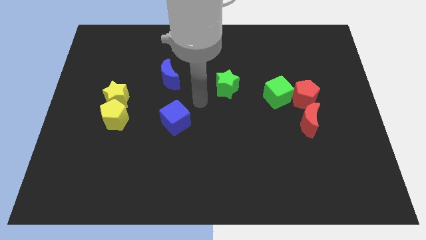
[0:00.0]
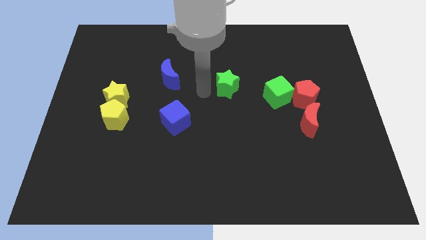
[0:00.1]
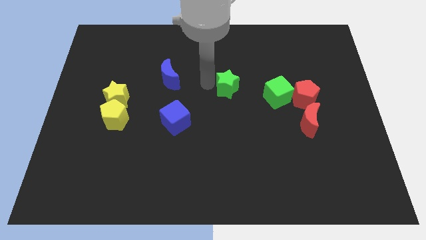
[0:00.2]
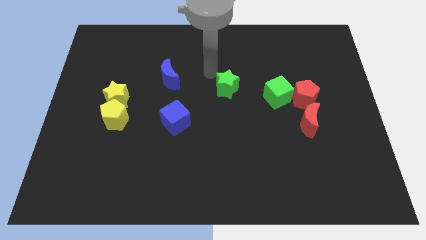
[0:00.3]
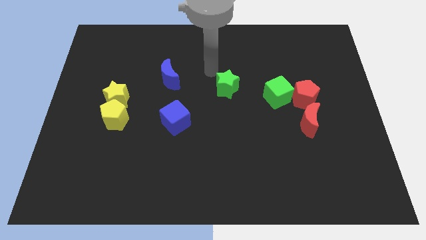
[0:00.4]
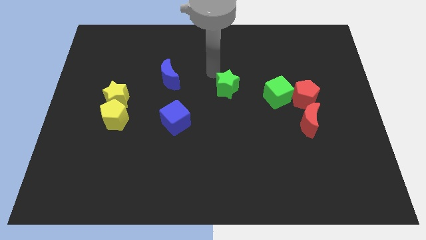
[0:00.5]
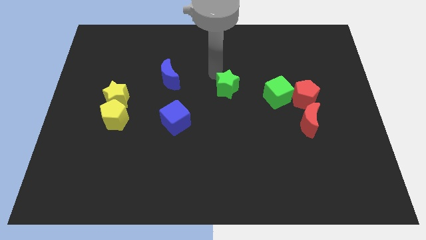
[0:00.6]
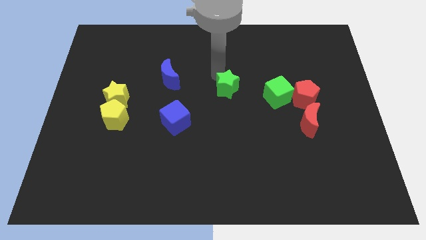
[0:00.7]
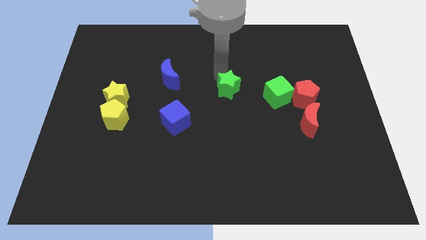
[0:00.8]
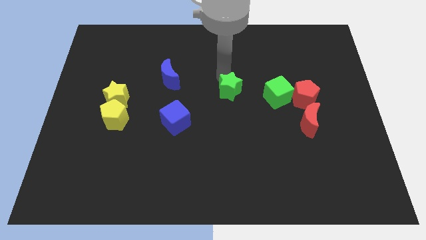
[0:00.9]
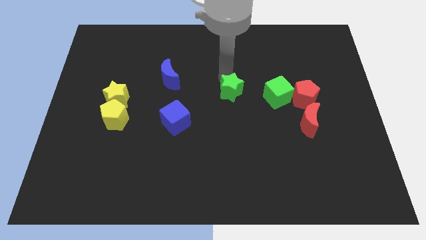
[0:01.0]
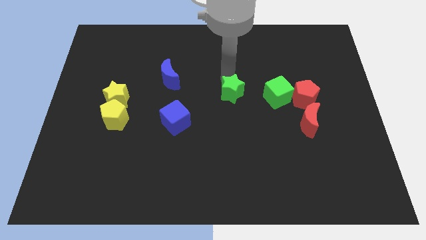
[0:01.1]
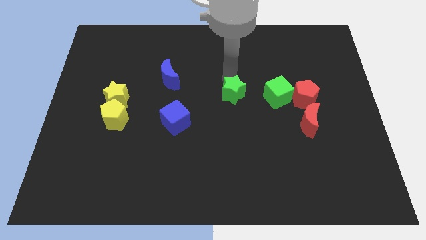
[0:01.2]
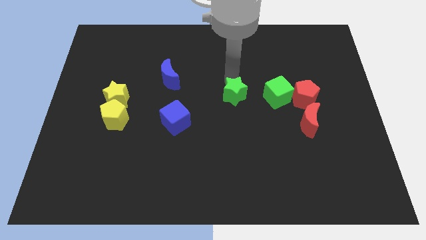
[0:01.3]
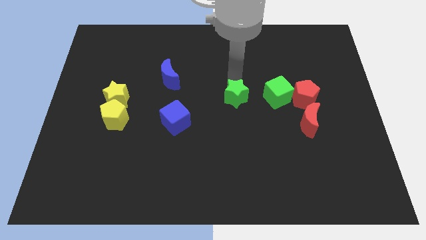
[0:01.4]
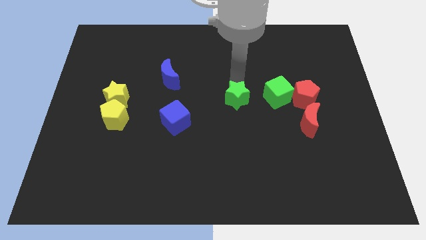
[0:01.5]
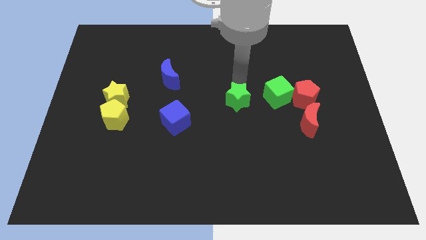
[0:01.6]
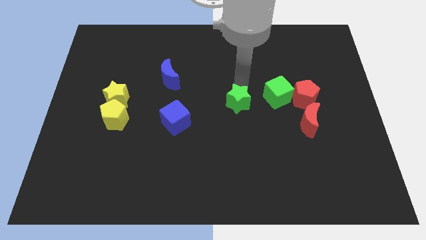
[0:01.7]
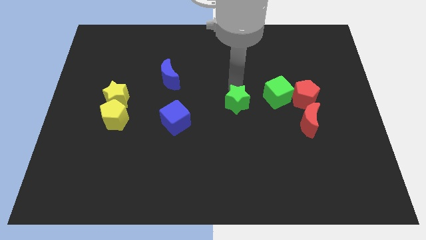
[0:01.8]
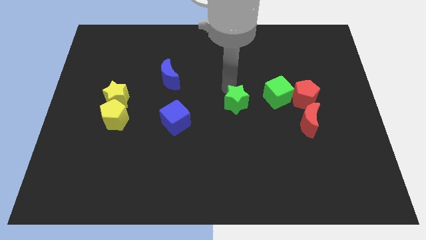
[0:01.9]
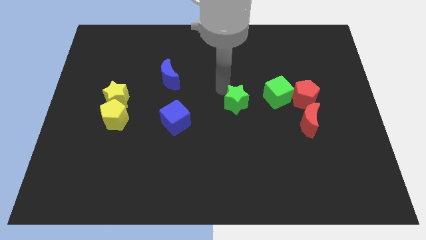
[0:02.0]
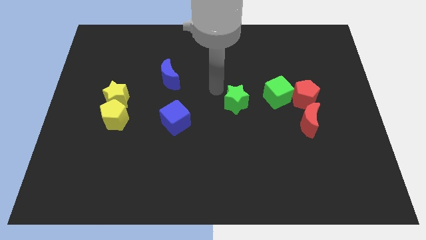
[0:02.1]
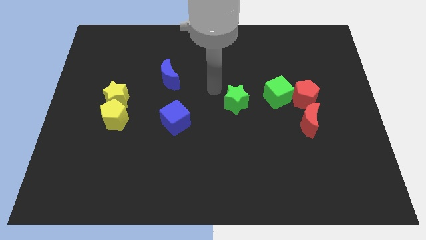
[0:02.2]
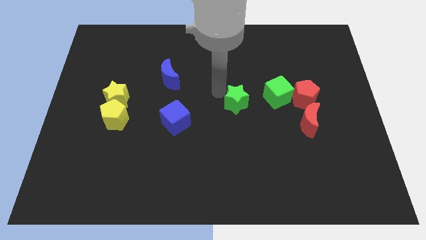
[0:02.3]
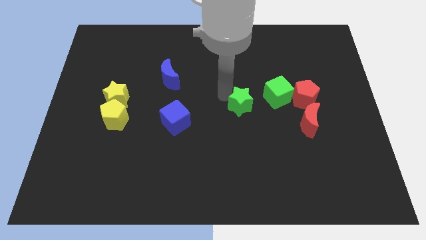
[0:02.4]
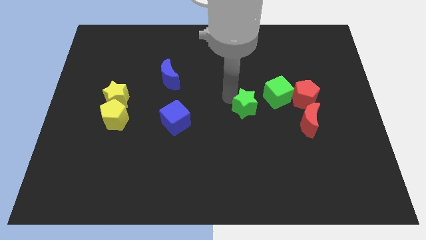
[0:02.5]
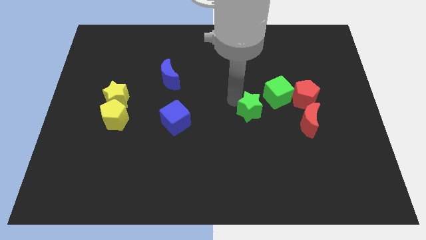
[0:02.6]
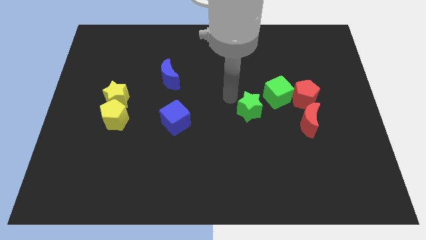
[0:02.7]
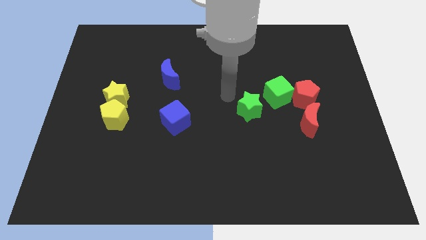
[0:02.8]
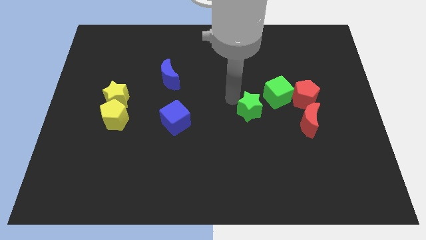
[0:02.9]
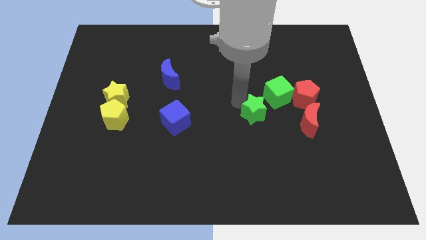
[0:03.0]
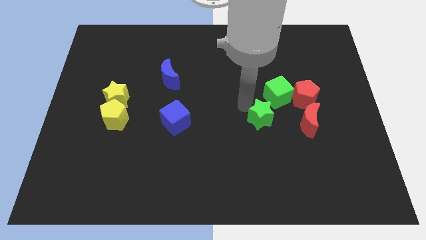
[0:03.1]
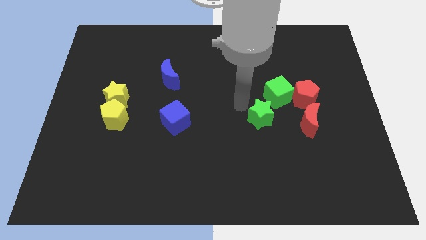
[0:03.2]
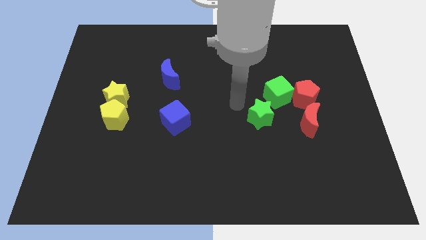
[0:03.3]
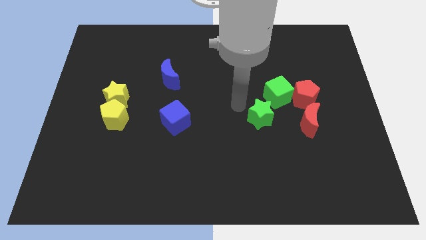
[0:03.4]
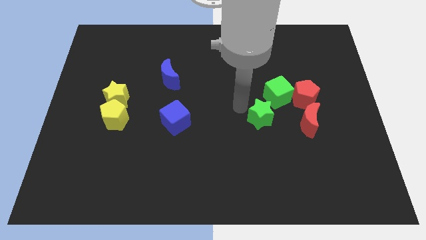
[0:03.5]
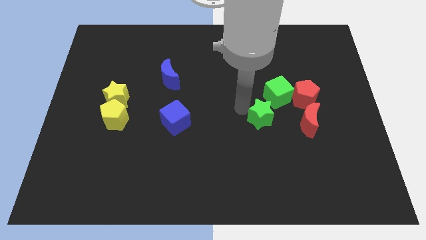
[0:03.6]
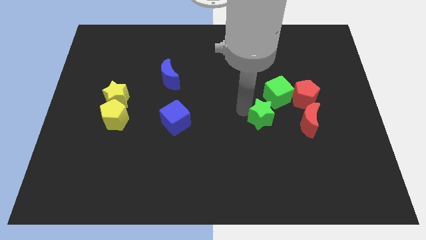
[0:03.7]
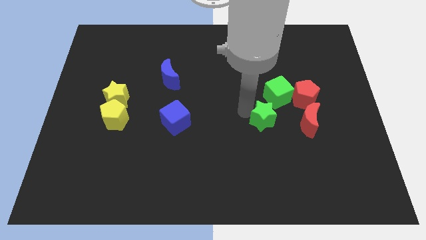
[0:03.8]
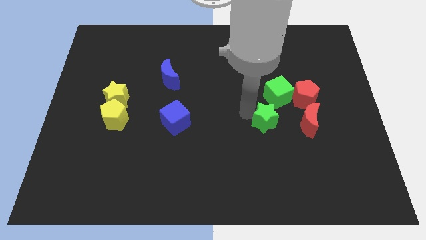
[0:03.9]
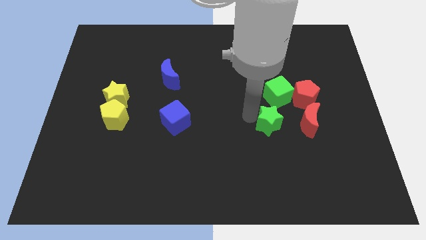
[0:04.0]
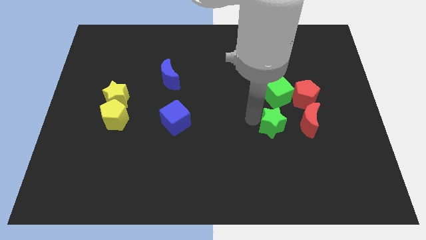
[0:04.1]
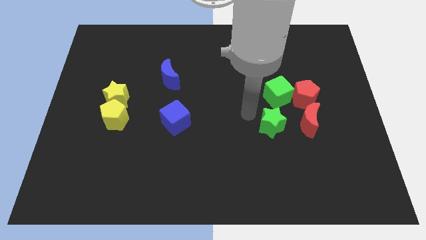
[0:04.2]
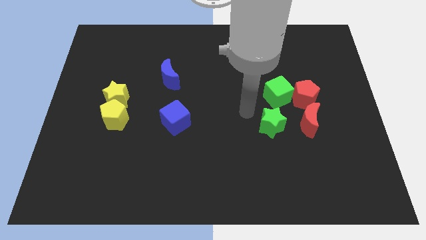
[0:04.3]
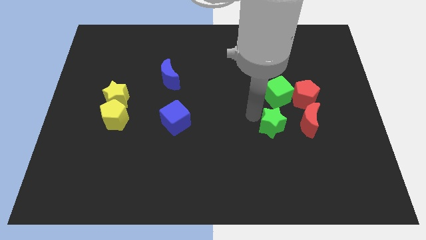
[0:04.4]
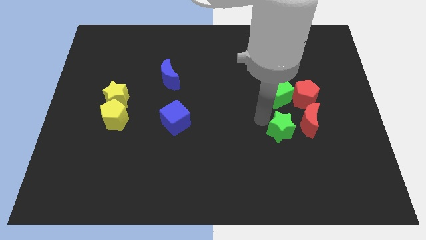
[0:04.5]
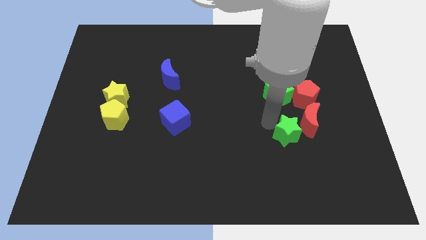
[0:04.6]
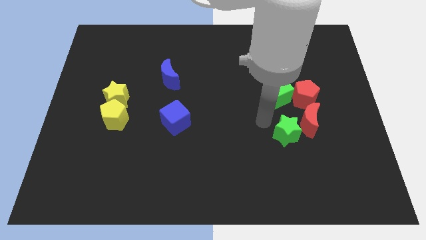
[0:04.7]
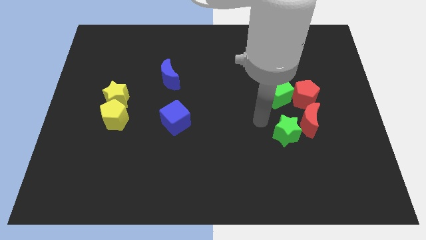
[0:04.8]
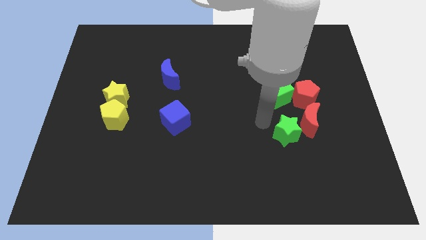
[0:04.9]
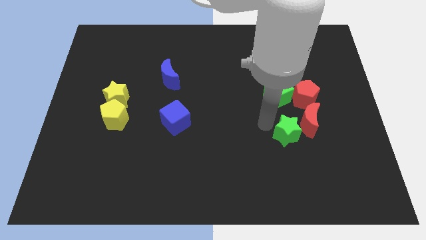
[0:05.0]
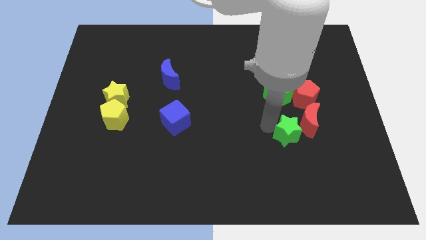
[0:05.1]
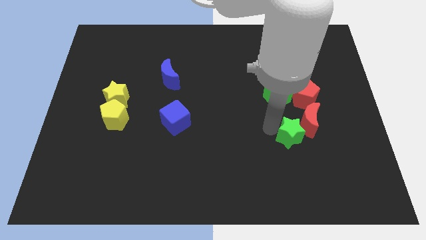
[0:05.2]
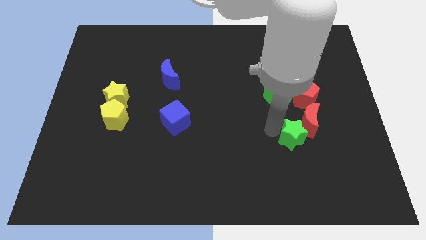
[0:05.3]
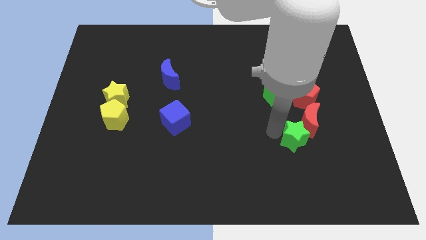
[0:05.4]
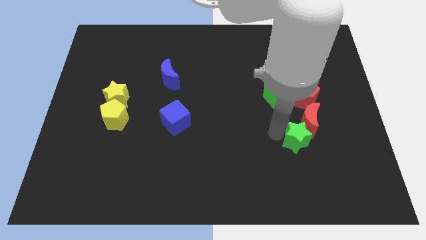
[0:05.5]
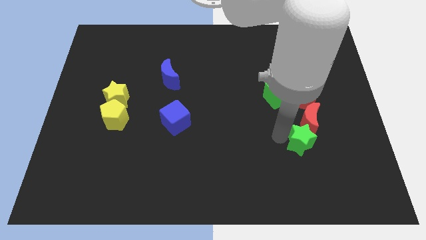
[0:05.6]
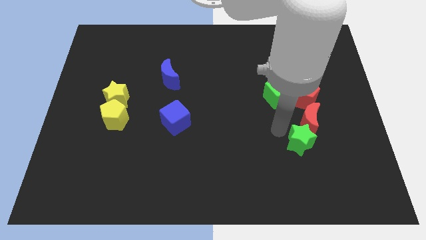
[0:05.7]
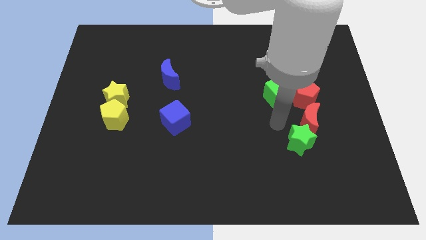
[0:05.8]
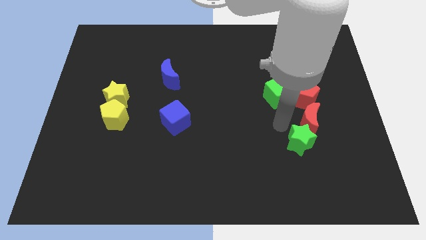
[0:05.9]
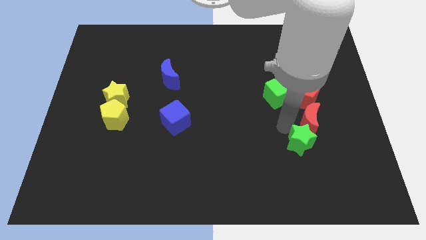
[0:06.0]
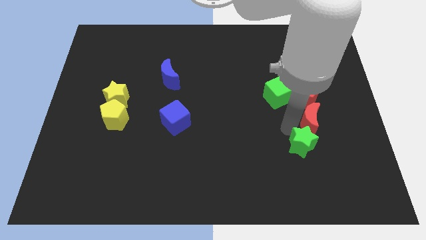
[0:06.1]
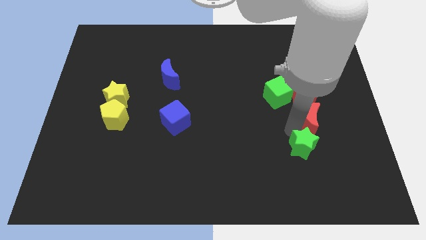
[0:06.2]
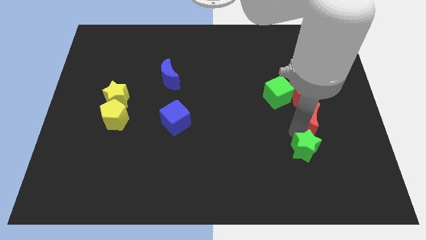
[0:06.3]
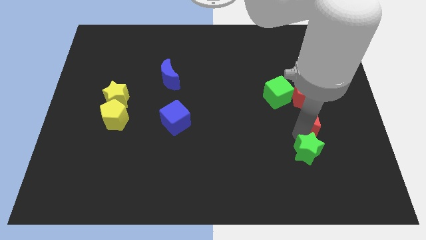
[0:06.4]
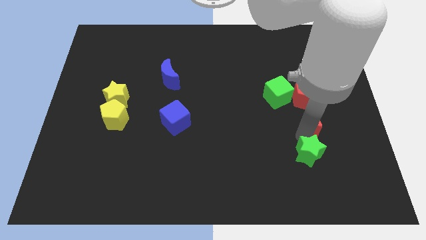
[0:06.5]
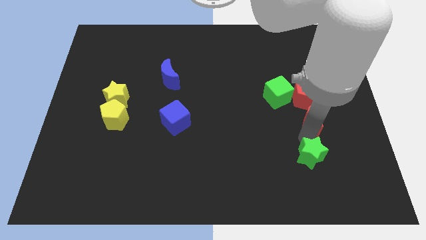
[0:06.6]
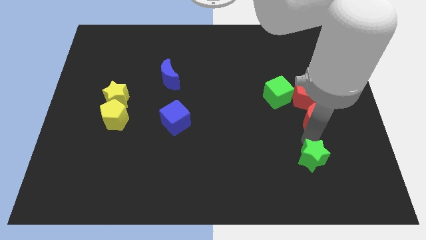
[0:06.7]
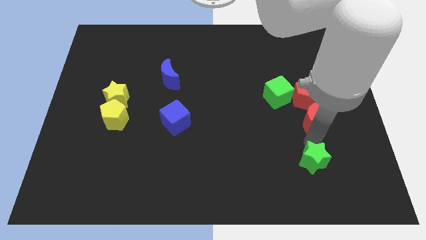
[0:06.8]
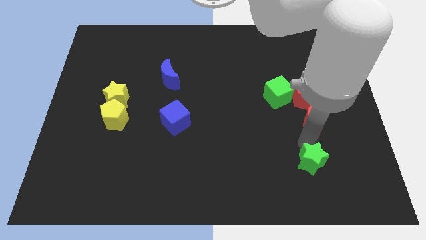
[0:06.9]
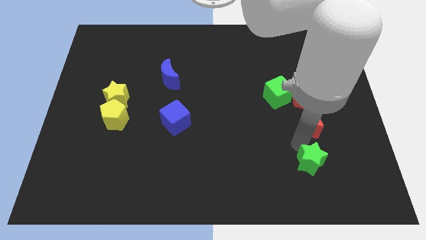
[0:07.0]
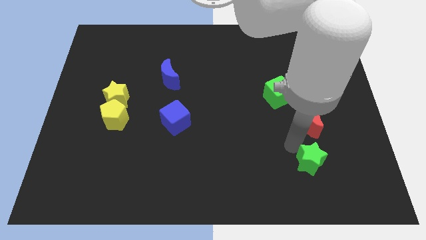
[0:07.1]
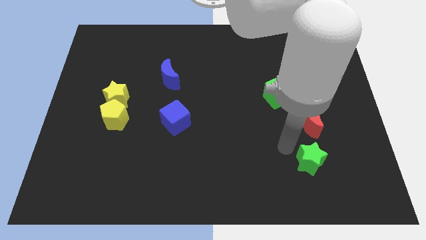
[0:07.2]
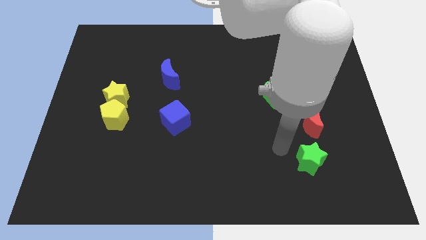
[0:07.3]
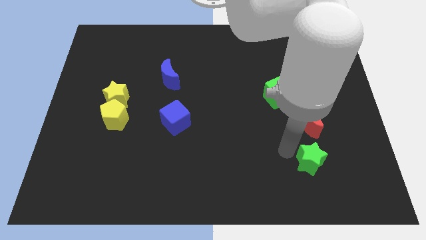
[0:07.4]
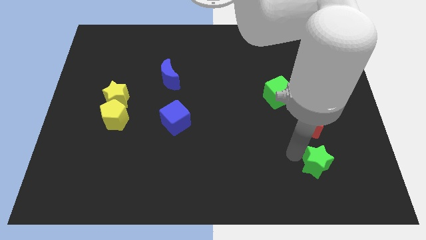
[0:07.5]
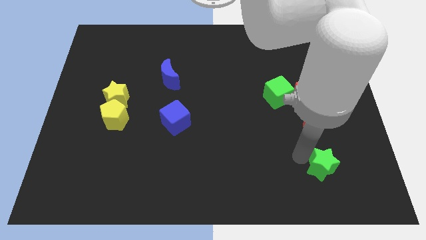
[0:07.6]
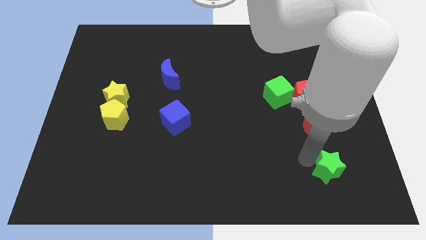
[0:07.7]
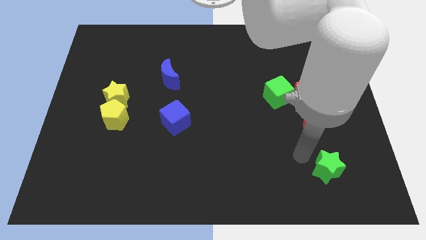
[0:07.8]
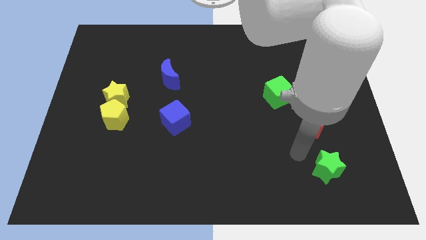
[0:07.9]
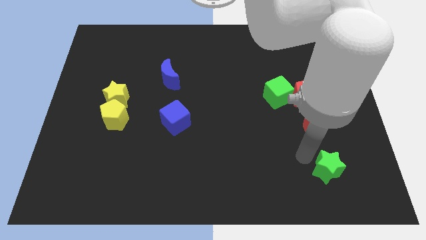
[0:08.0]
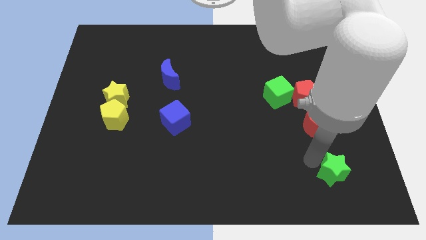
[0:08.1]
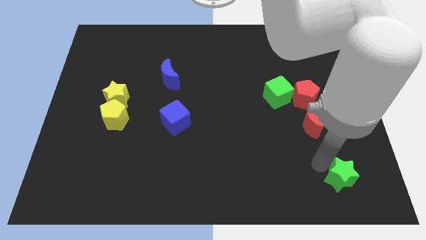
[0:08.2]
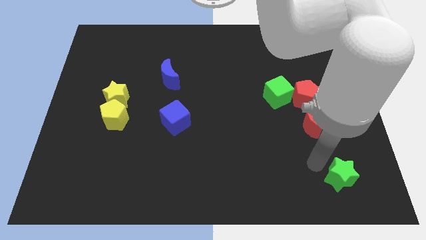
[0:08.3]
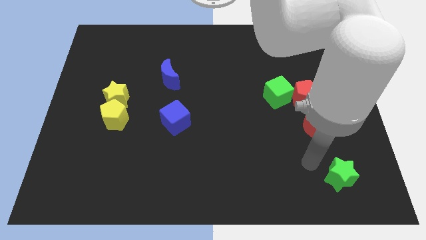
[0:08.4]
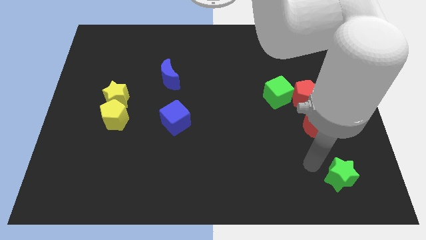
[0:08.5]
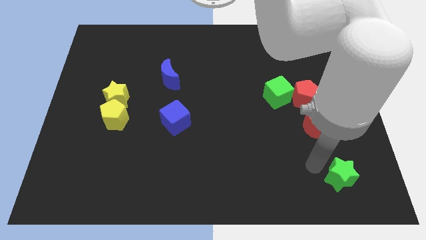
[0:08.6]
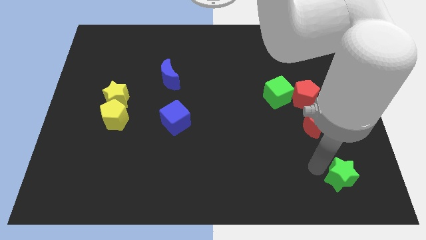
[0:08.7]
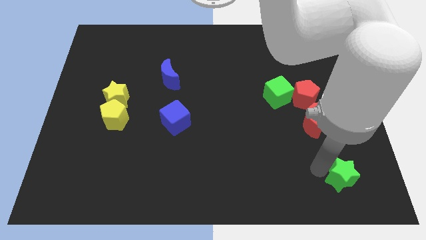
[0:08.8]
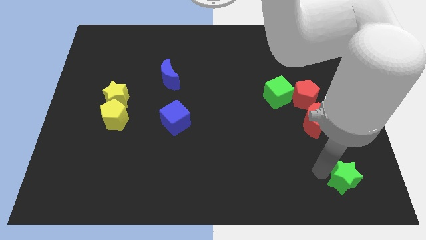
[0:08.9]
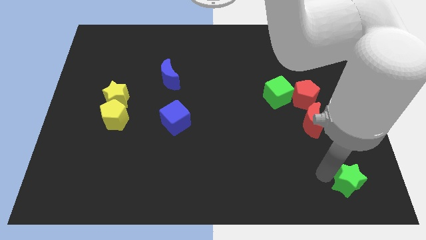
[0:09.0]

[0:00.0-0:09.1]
slide the green star to the bottom right of the board
